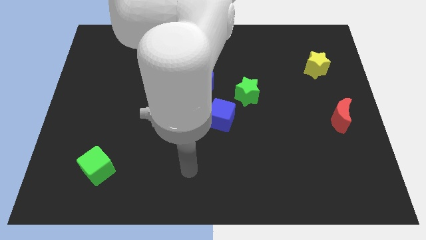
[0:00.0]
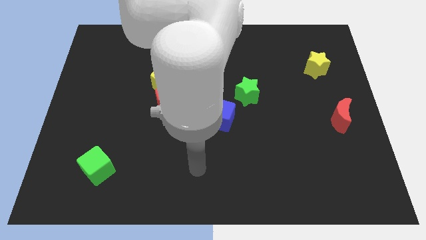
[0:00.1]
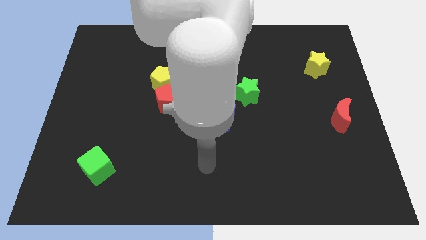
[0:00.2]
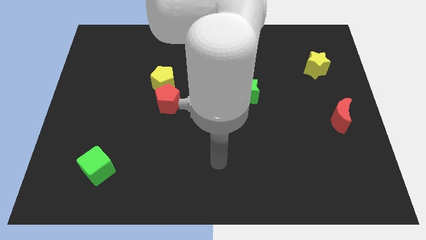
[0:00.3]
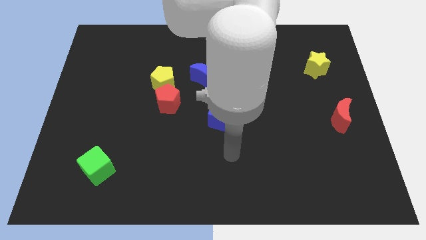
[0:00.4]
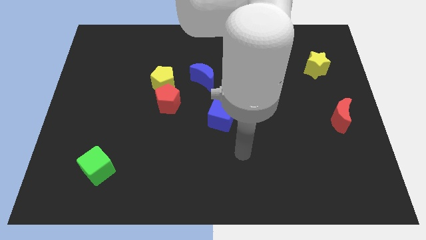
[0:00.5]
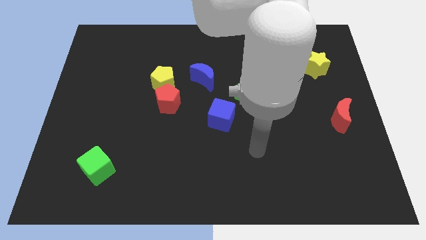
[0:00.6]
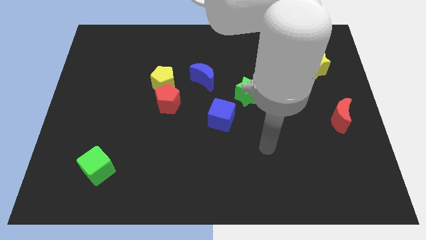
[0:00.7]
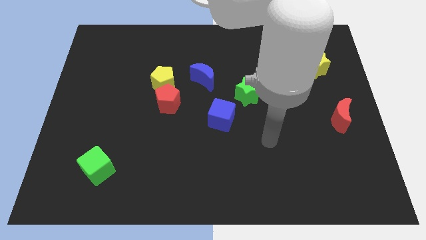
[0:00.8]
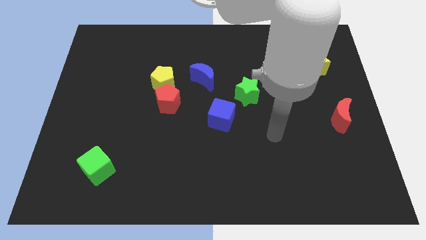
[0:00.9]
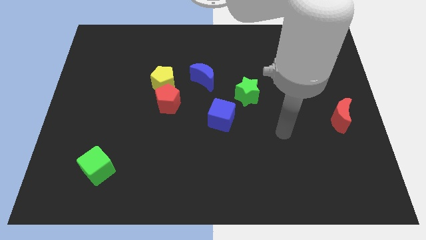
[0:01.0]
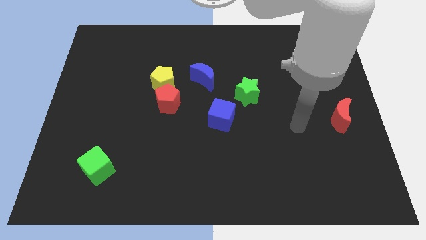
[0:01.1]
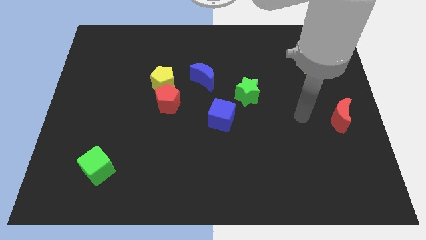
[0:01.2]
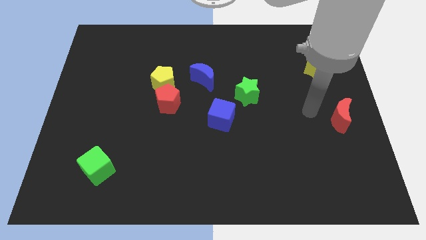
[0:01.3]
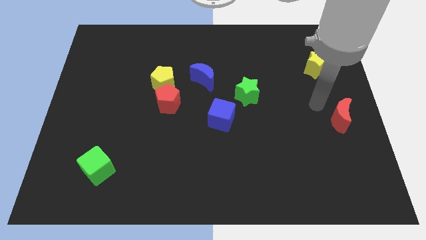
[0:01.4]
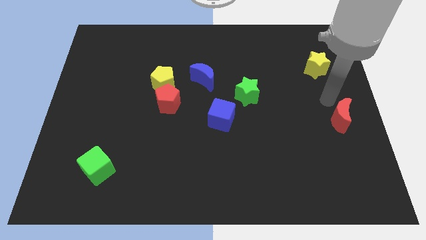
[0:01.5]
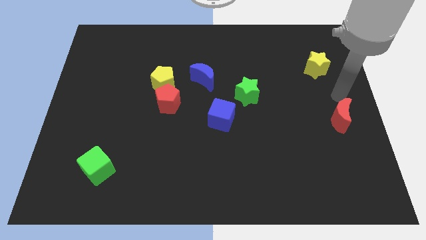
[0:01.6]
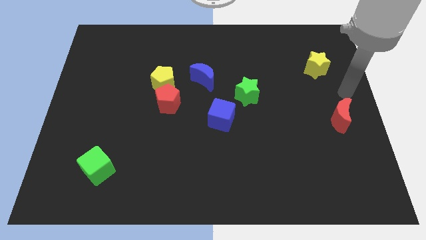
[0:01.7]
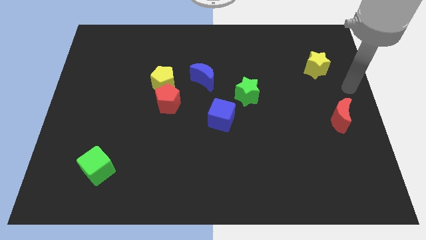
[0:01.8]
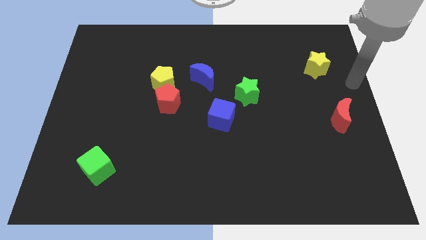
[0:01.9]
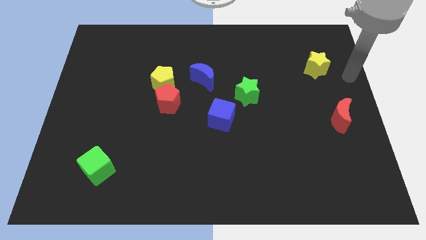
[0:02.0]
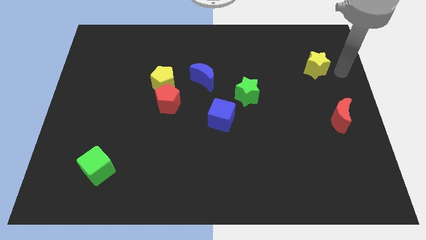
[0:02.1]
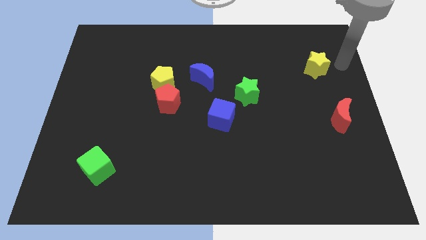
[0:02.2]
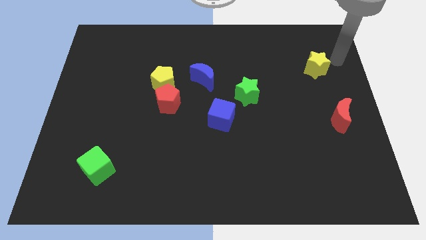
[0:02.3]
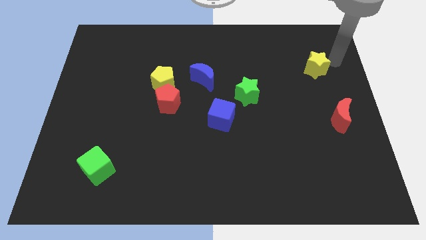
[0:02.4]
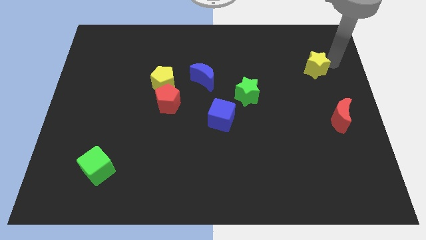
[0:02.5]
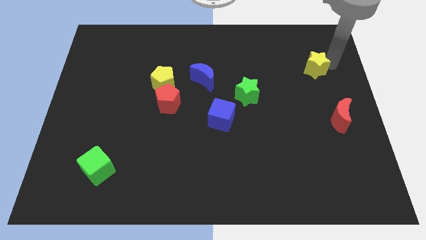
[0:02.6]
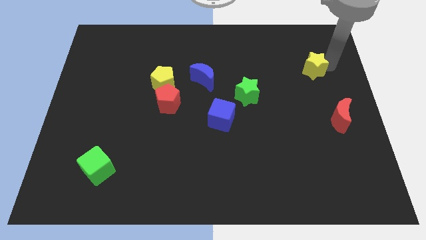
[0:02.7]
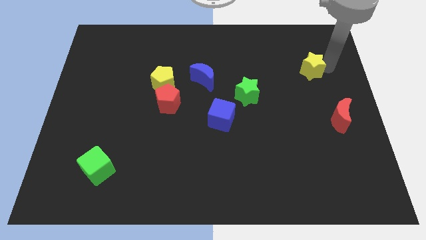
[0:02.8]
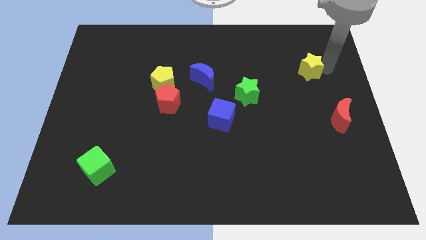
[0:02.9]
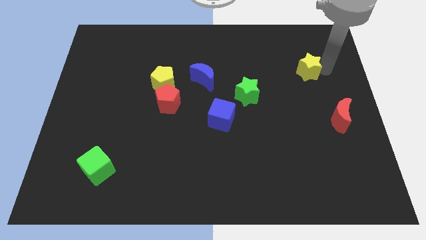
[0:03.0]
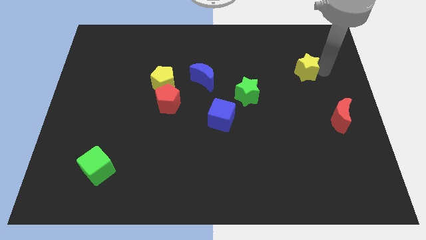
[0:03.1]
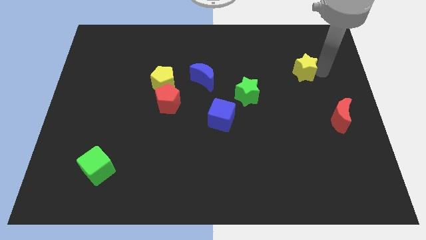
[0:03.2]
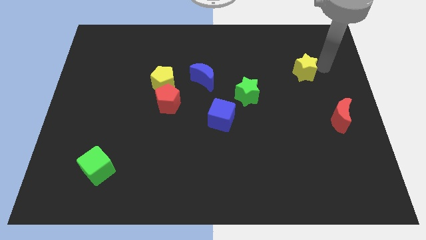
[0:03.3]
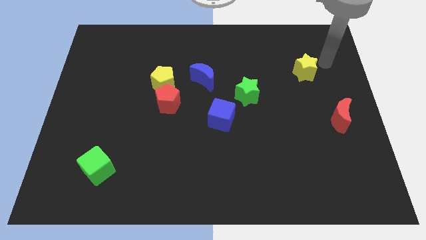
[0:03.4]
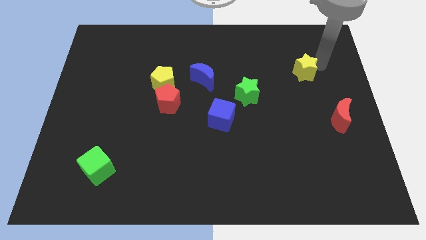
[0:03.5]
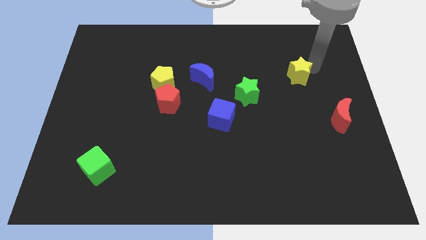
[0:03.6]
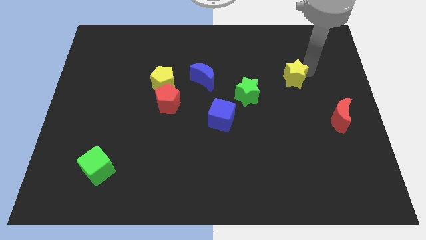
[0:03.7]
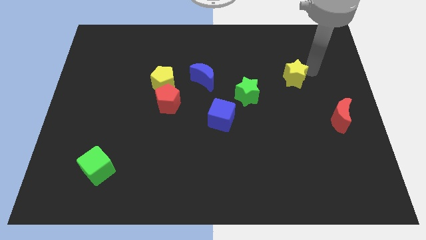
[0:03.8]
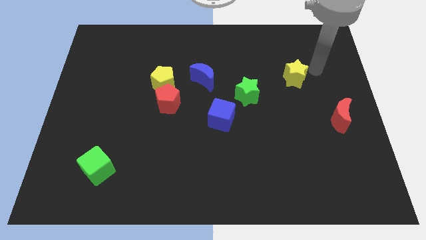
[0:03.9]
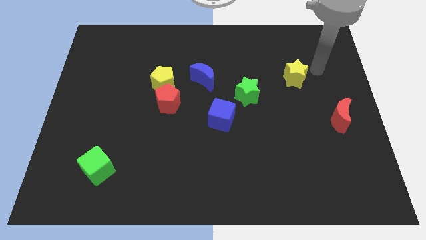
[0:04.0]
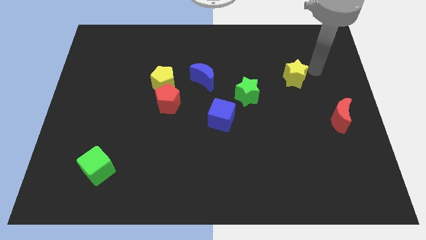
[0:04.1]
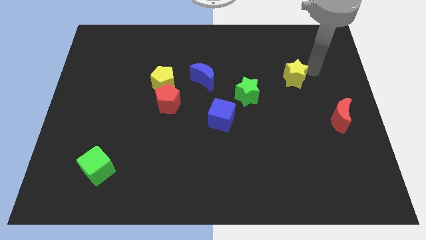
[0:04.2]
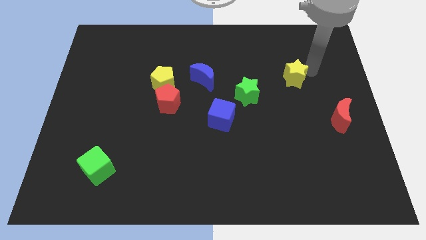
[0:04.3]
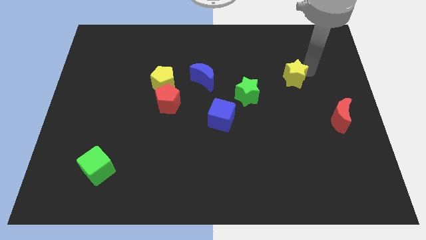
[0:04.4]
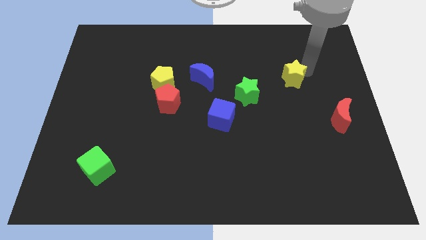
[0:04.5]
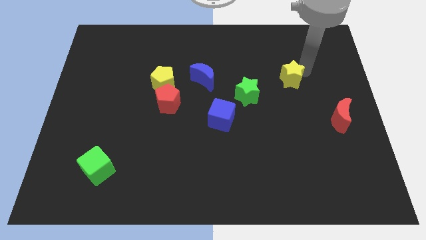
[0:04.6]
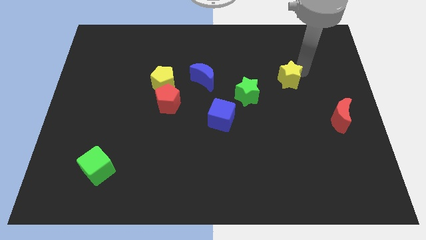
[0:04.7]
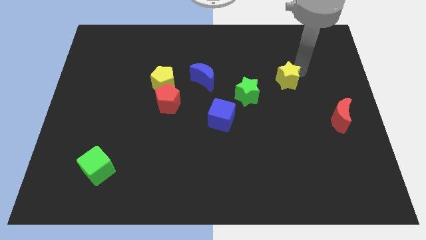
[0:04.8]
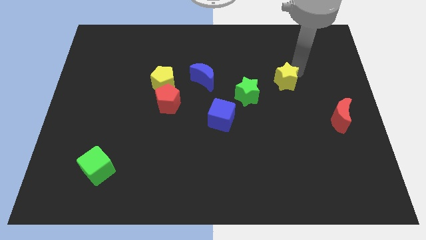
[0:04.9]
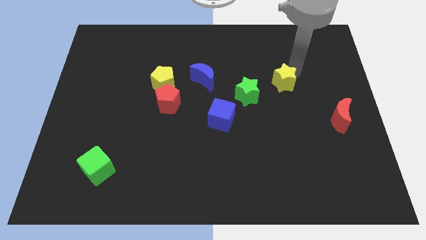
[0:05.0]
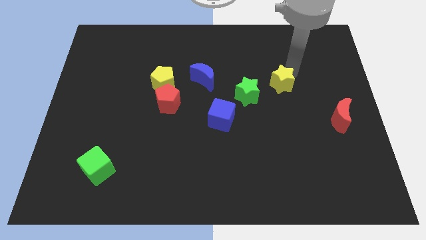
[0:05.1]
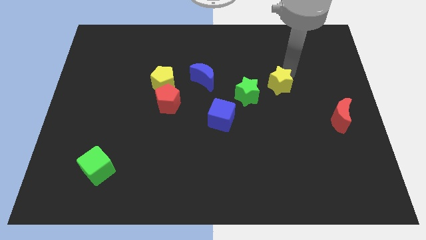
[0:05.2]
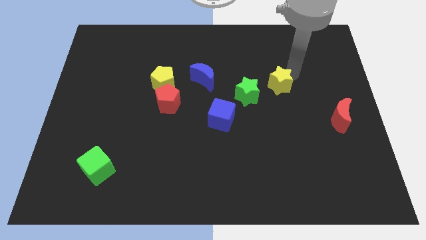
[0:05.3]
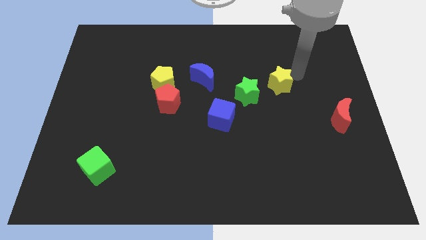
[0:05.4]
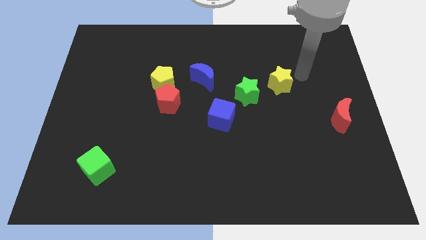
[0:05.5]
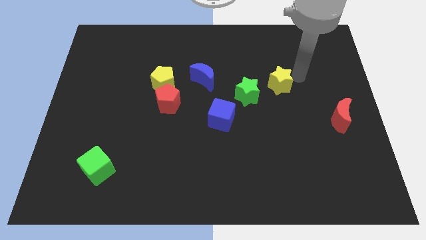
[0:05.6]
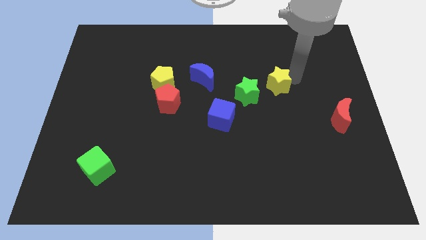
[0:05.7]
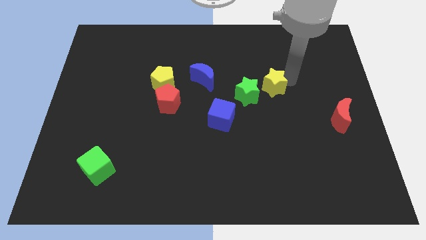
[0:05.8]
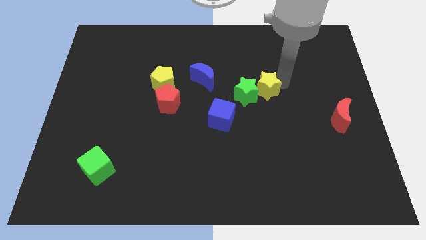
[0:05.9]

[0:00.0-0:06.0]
move the yellow star next to the green star
